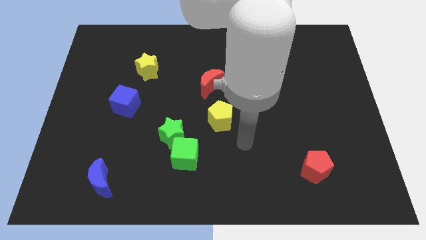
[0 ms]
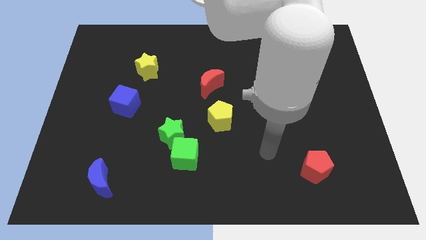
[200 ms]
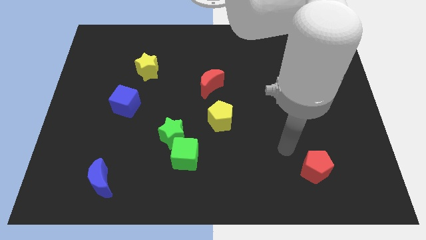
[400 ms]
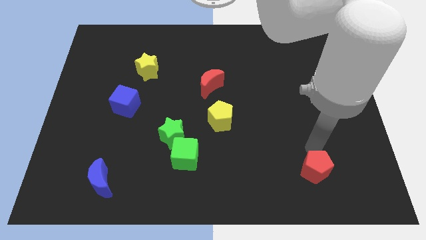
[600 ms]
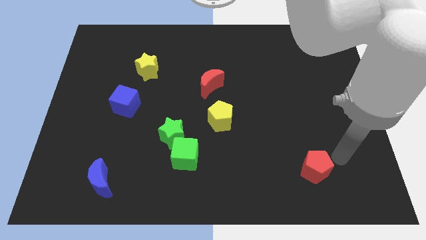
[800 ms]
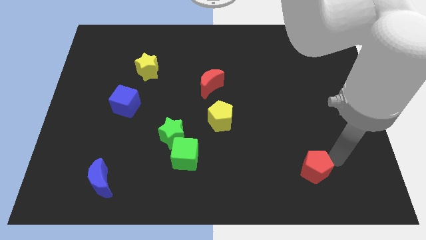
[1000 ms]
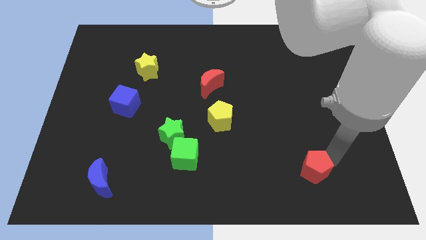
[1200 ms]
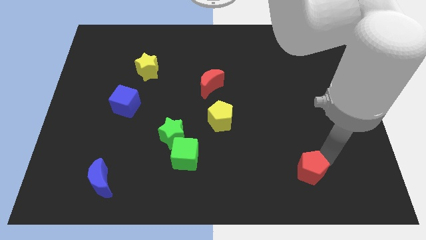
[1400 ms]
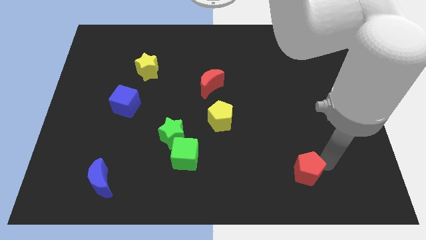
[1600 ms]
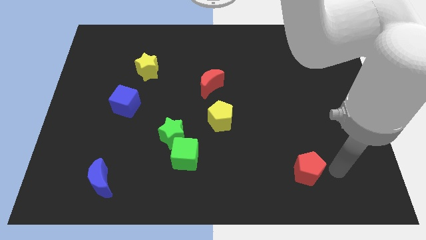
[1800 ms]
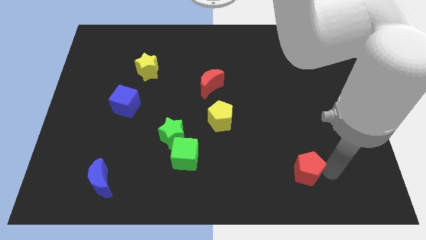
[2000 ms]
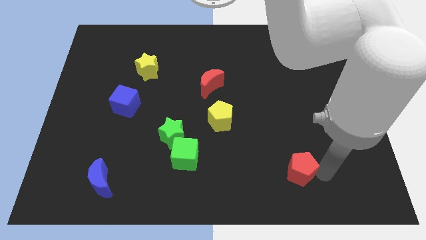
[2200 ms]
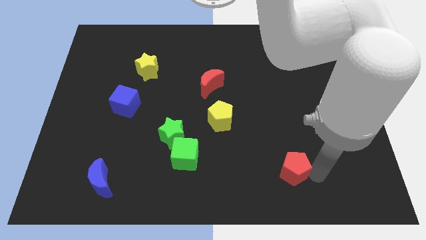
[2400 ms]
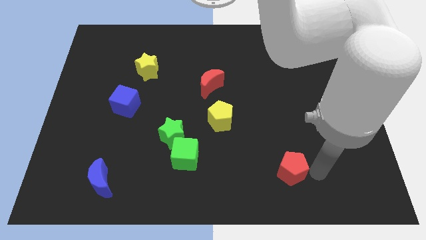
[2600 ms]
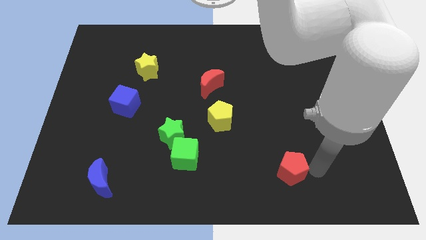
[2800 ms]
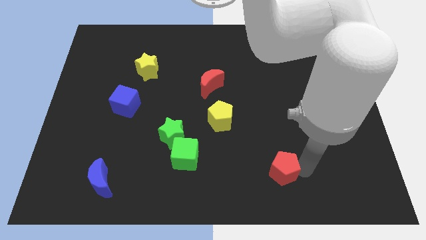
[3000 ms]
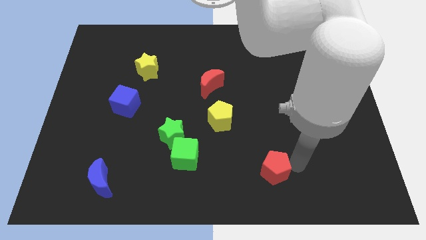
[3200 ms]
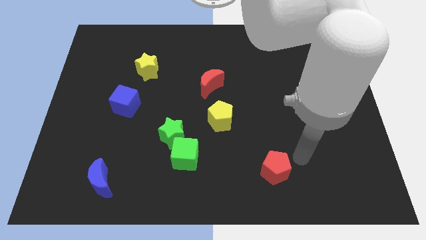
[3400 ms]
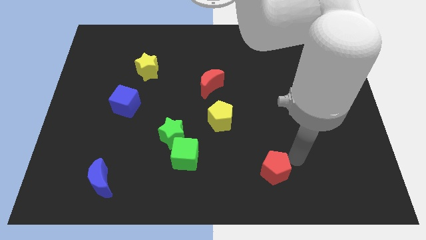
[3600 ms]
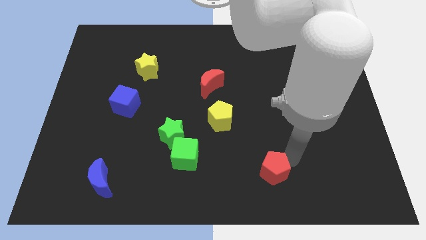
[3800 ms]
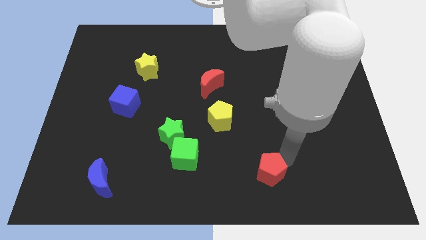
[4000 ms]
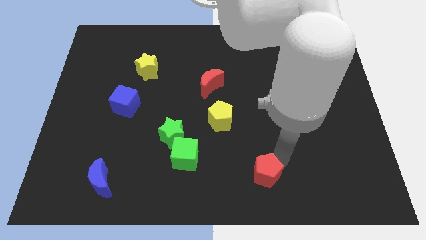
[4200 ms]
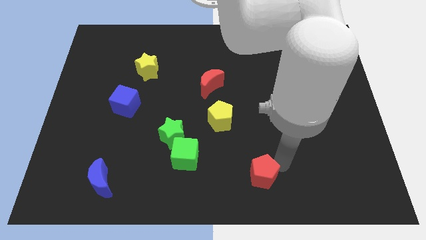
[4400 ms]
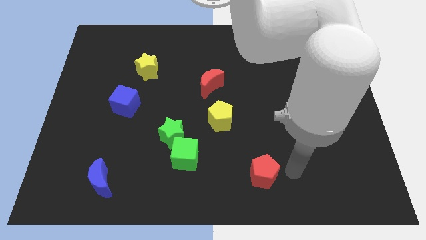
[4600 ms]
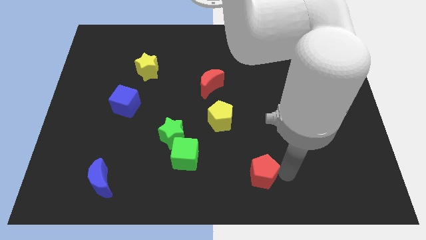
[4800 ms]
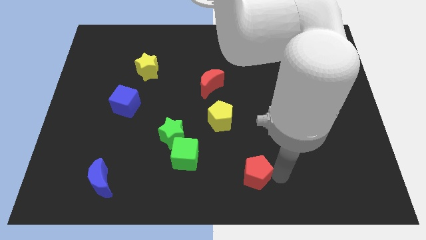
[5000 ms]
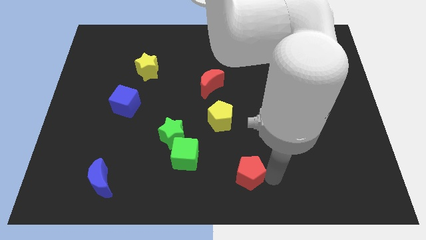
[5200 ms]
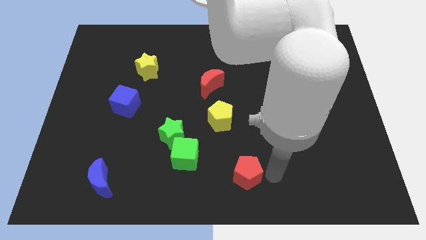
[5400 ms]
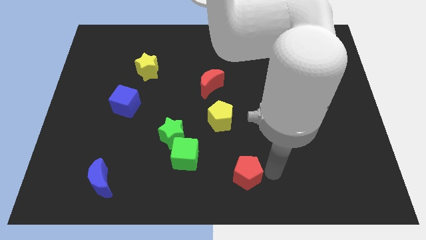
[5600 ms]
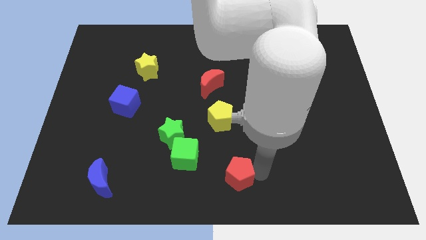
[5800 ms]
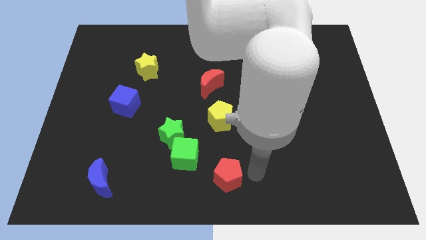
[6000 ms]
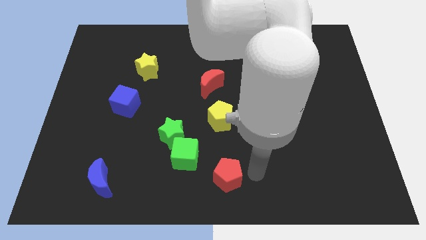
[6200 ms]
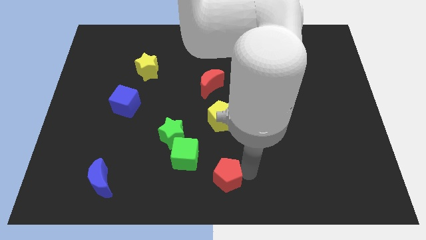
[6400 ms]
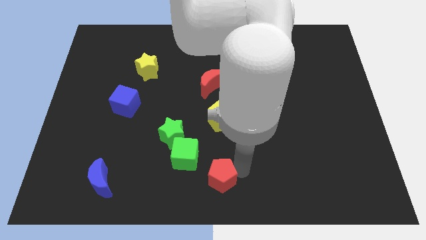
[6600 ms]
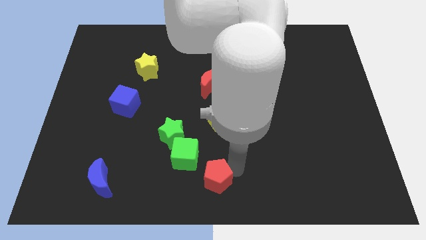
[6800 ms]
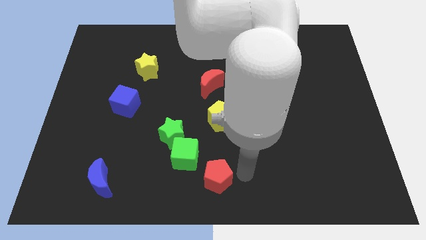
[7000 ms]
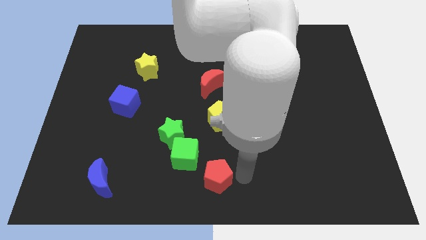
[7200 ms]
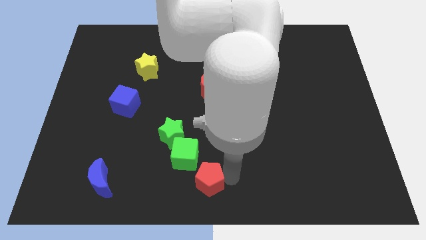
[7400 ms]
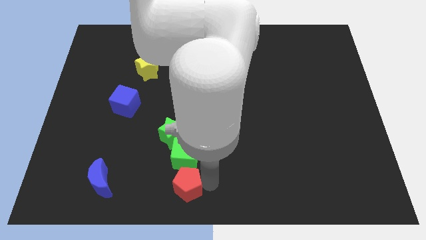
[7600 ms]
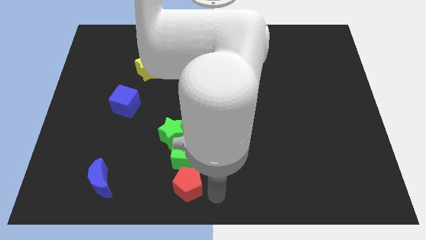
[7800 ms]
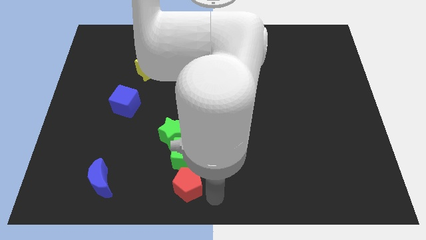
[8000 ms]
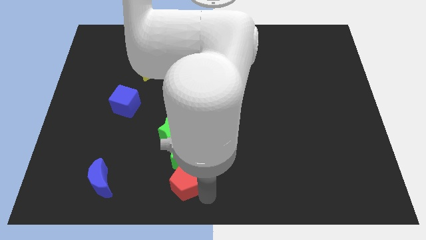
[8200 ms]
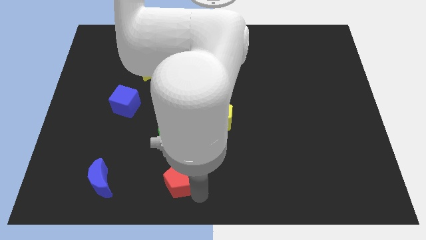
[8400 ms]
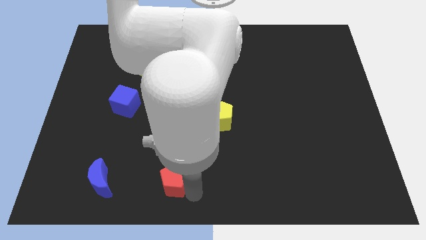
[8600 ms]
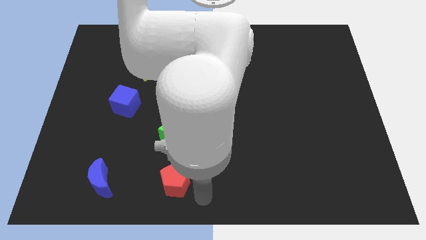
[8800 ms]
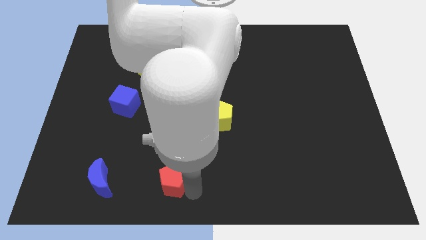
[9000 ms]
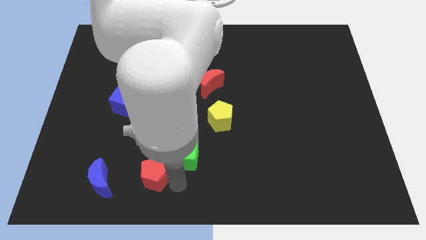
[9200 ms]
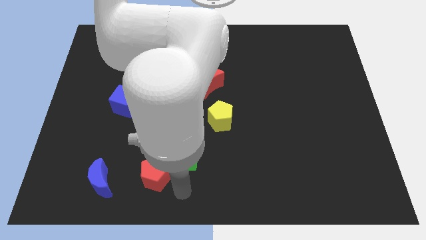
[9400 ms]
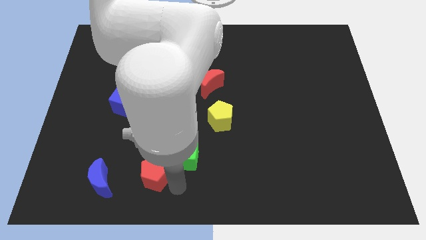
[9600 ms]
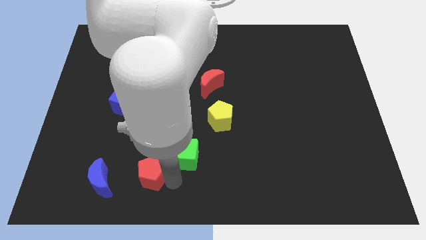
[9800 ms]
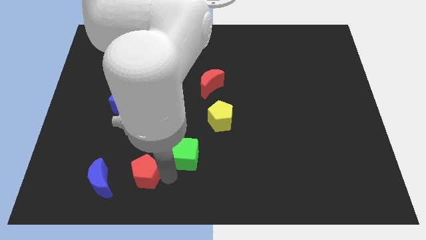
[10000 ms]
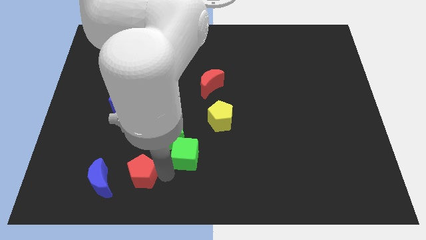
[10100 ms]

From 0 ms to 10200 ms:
push the red pentagon diagonally up and to the right of the blue moon

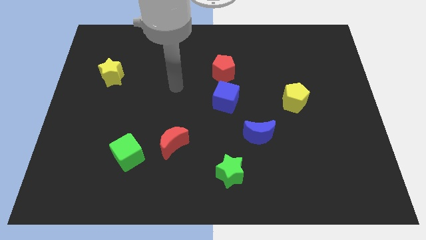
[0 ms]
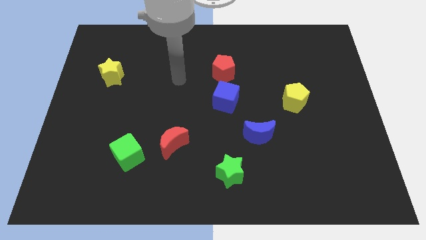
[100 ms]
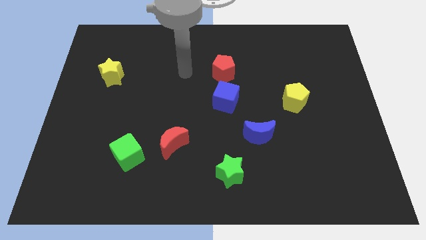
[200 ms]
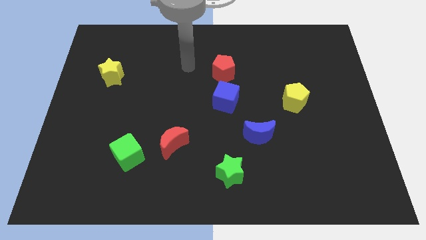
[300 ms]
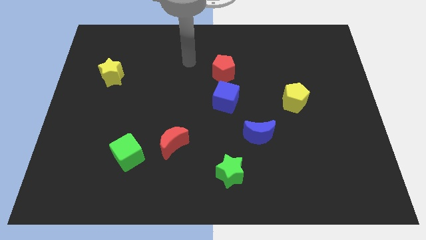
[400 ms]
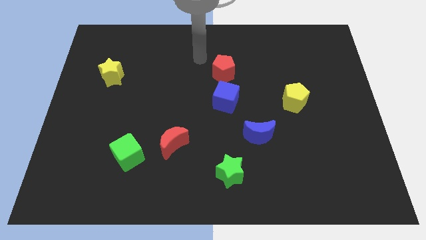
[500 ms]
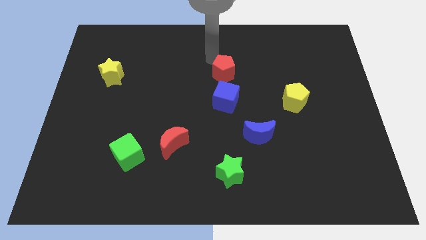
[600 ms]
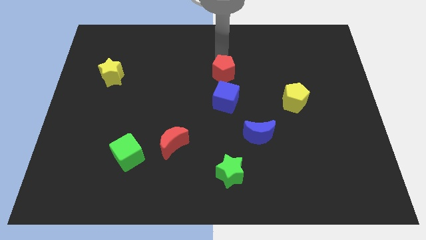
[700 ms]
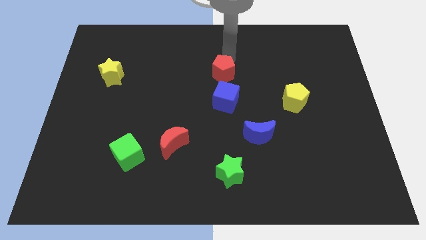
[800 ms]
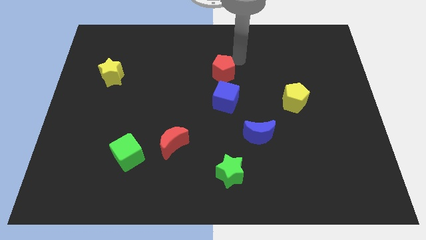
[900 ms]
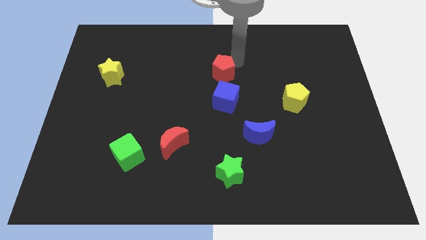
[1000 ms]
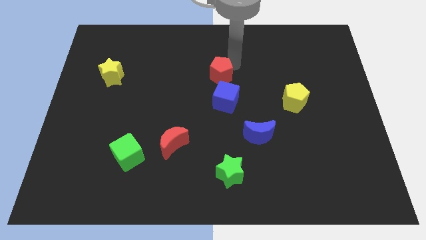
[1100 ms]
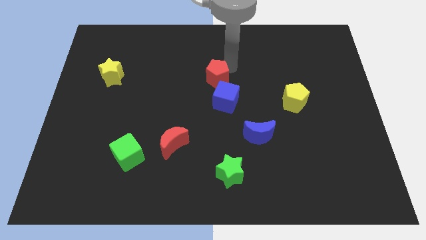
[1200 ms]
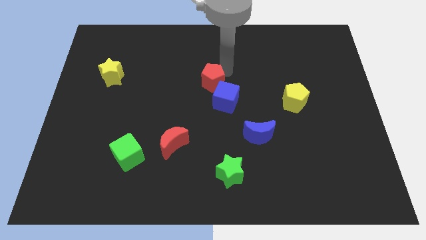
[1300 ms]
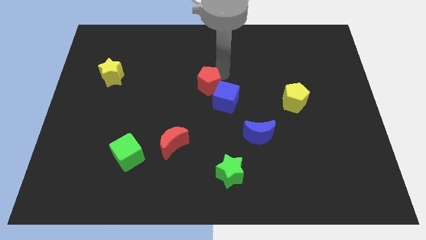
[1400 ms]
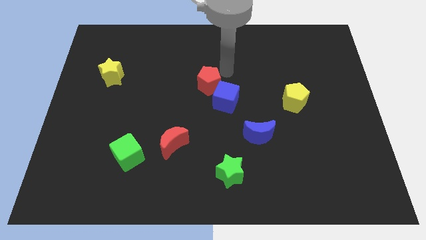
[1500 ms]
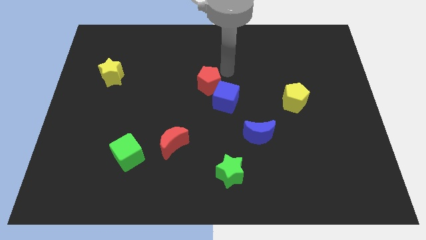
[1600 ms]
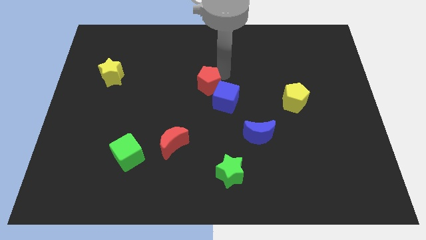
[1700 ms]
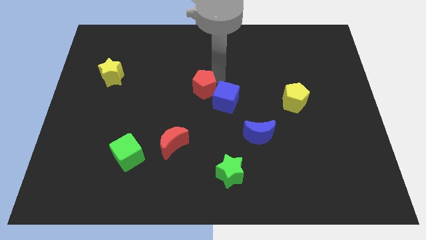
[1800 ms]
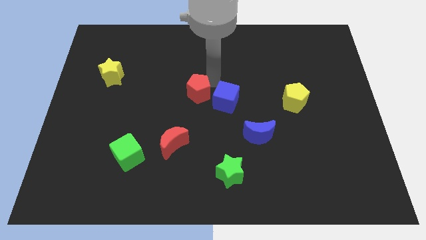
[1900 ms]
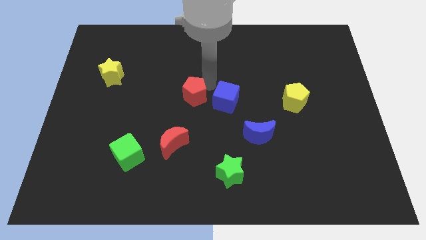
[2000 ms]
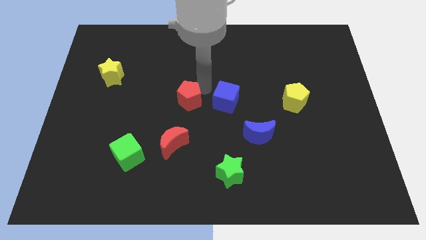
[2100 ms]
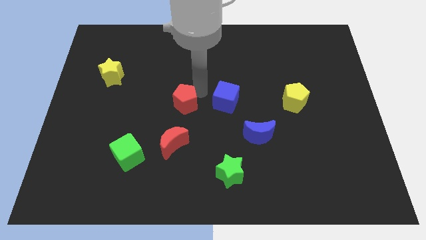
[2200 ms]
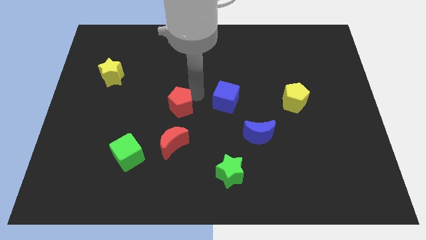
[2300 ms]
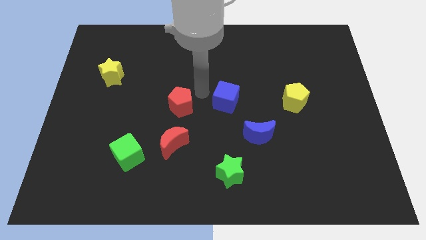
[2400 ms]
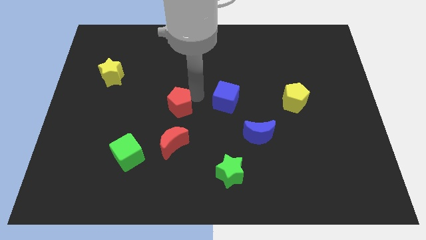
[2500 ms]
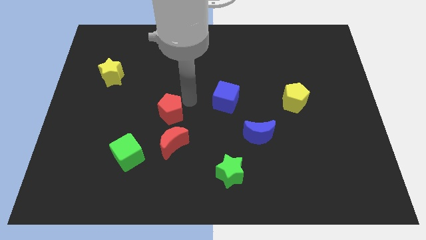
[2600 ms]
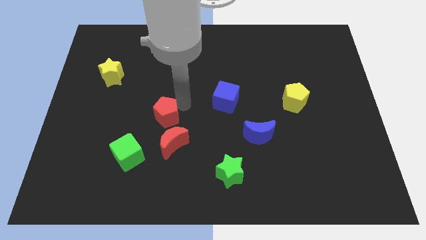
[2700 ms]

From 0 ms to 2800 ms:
put the red pentagon diagonally up and to the left of the red moon
